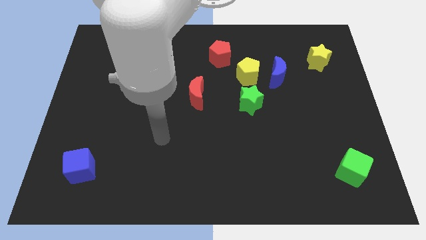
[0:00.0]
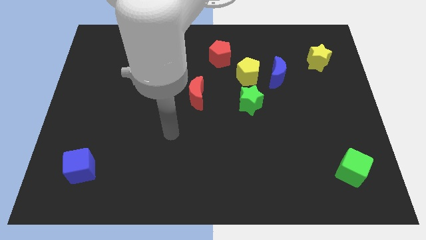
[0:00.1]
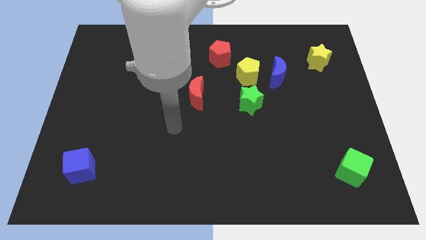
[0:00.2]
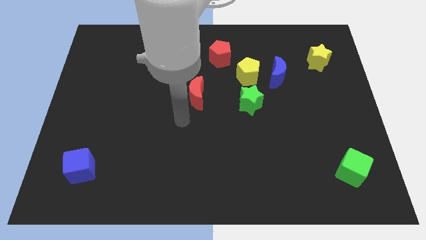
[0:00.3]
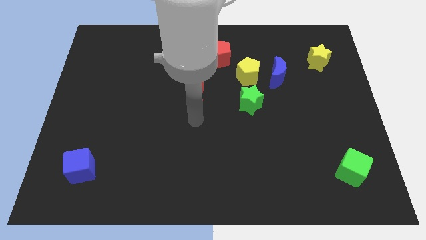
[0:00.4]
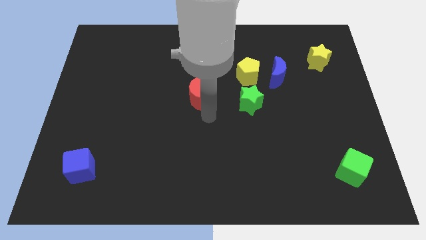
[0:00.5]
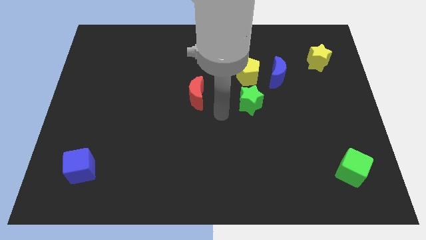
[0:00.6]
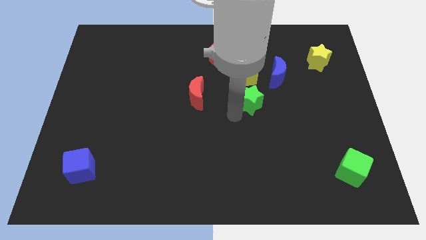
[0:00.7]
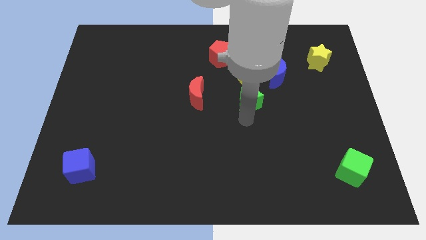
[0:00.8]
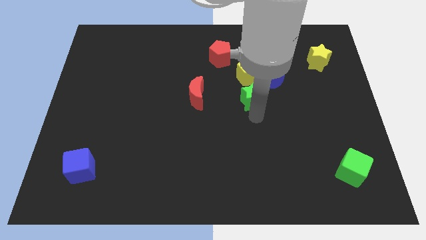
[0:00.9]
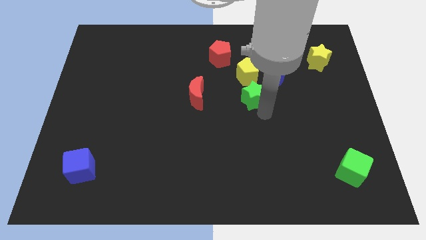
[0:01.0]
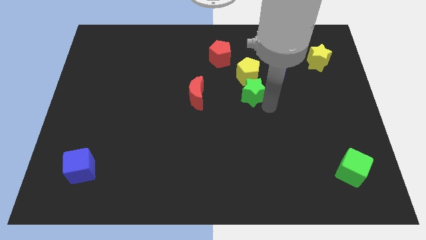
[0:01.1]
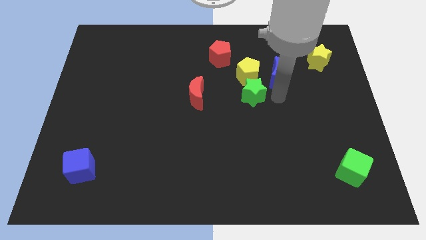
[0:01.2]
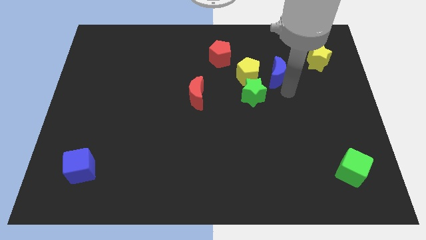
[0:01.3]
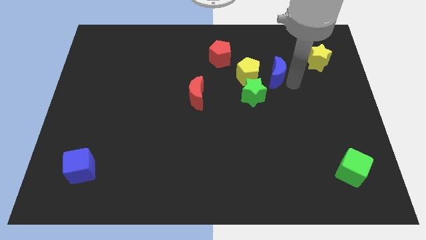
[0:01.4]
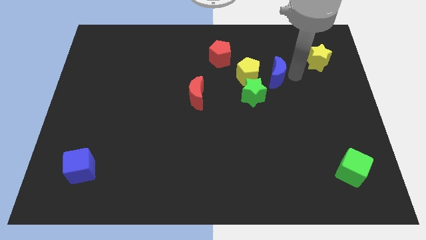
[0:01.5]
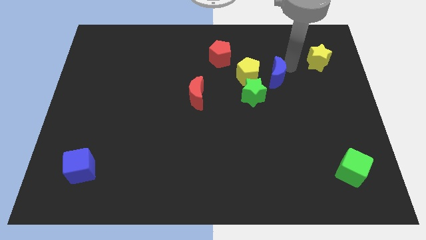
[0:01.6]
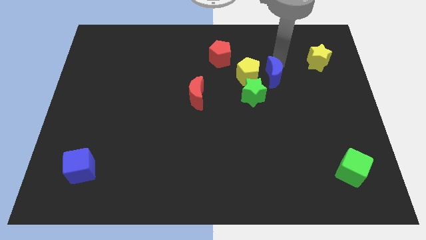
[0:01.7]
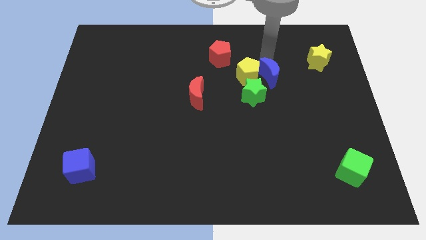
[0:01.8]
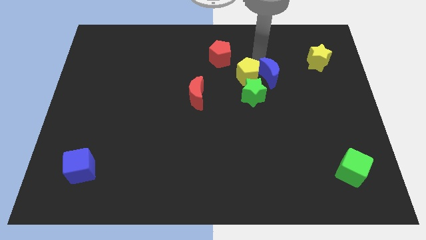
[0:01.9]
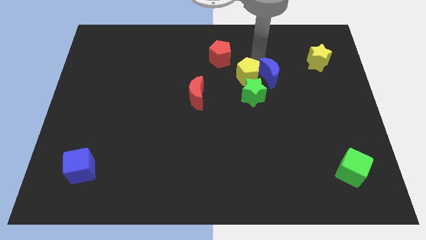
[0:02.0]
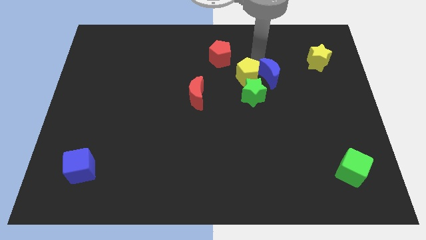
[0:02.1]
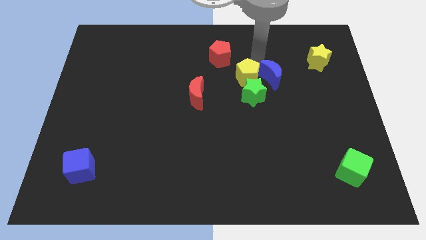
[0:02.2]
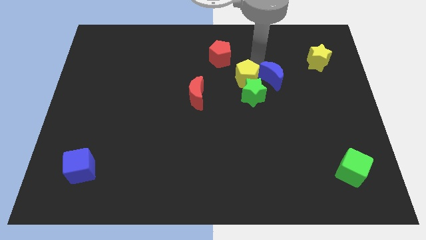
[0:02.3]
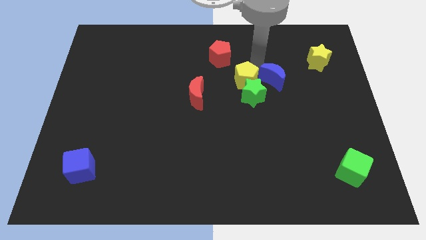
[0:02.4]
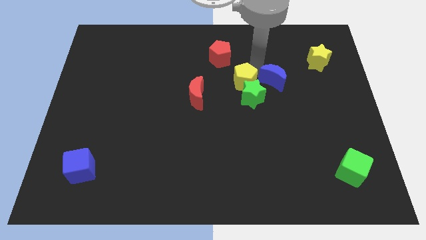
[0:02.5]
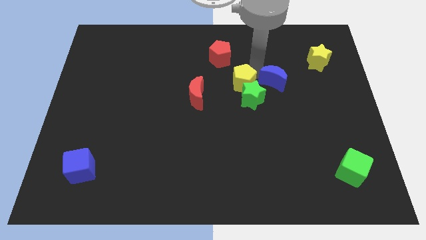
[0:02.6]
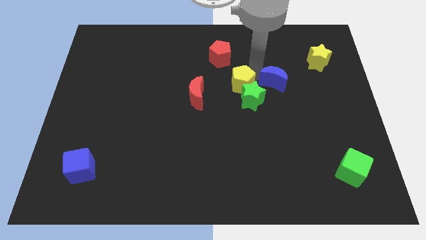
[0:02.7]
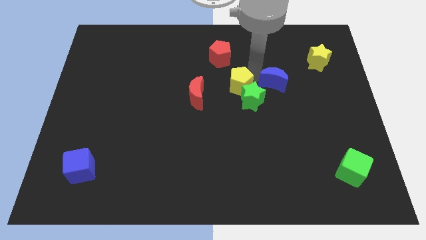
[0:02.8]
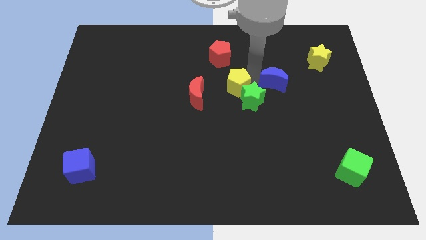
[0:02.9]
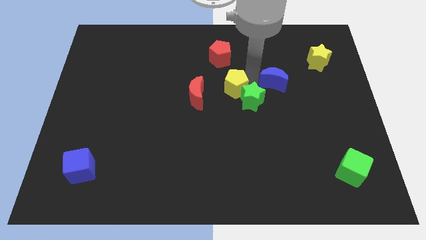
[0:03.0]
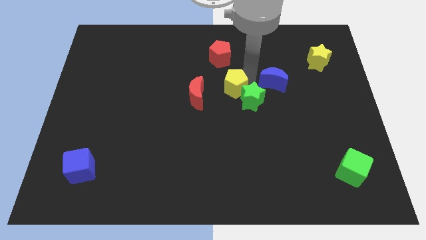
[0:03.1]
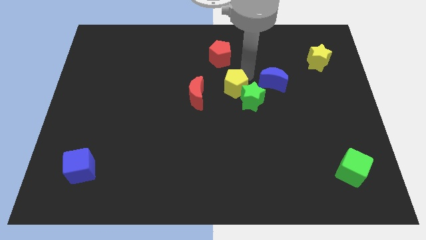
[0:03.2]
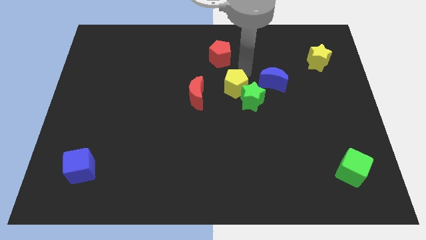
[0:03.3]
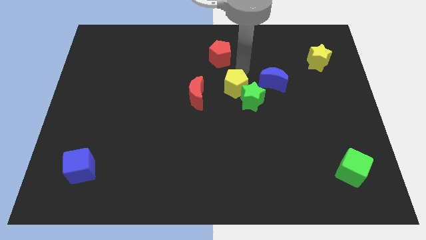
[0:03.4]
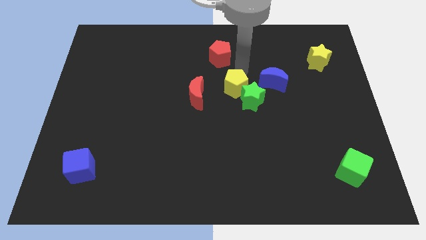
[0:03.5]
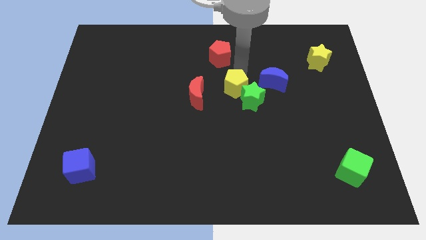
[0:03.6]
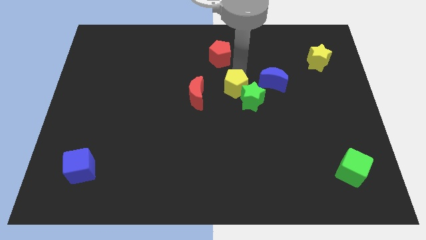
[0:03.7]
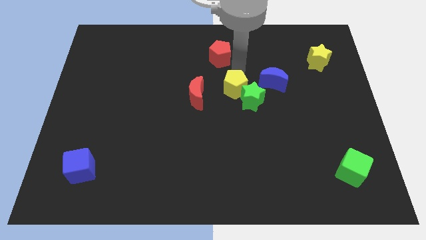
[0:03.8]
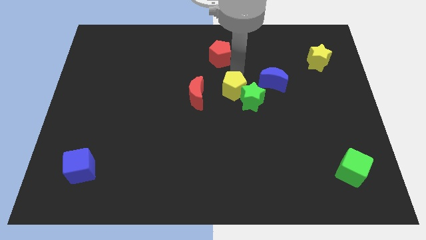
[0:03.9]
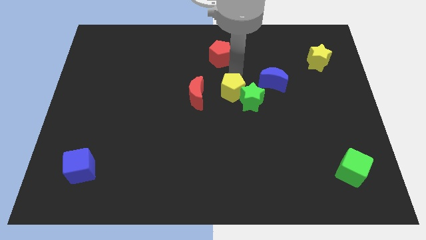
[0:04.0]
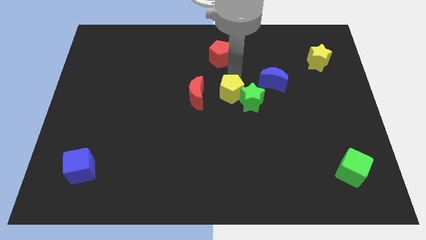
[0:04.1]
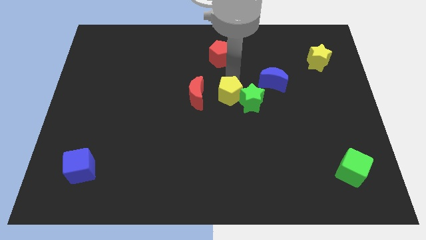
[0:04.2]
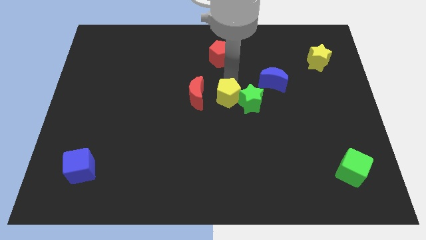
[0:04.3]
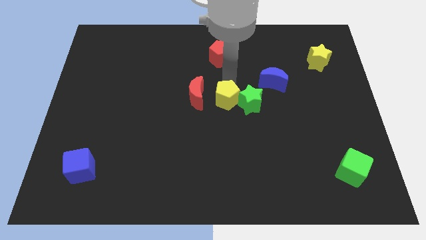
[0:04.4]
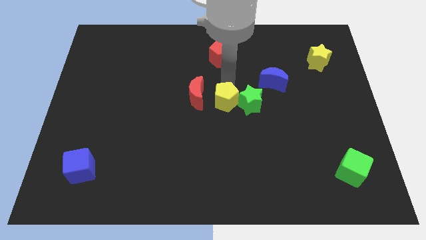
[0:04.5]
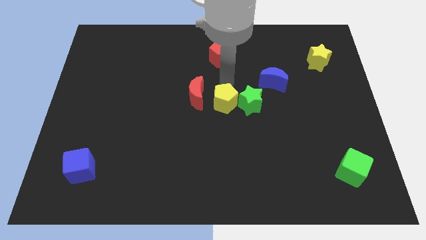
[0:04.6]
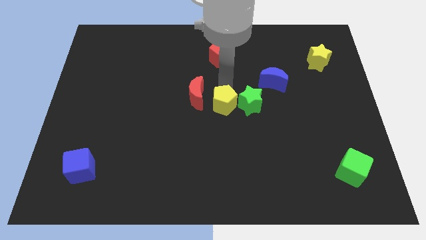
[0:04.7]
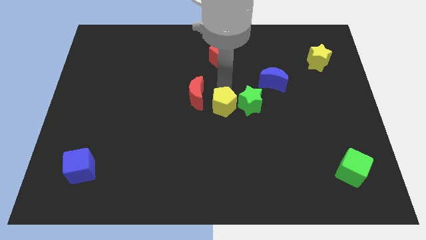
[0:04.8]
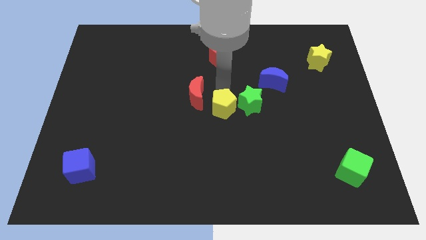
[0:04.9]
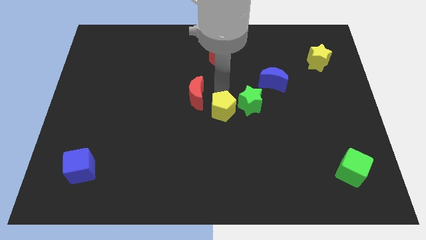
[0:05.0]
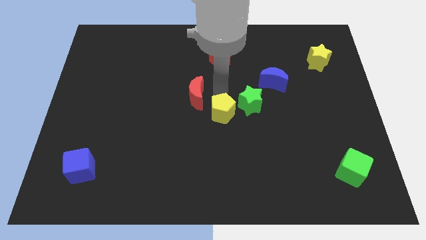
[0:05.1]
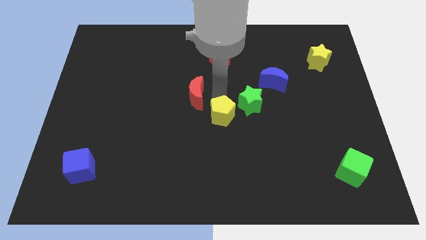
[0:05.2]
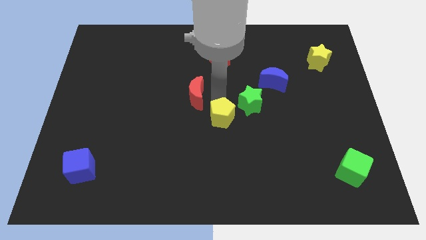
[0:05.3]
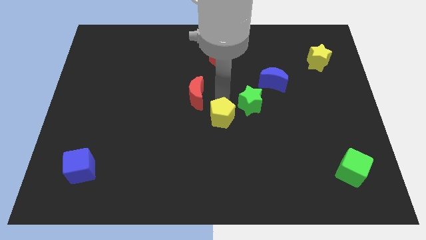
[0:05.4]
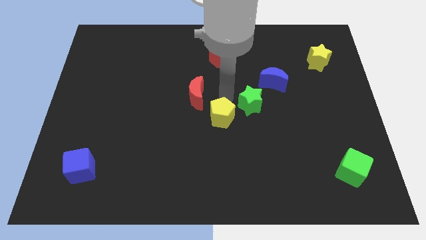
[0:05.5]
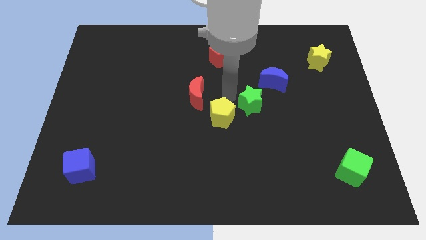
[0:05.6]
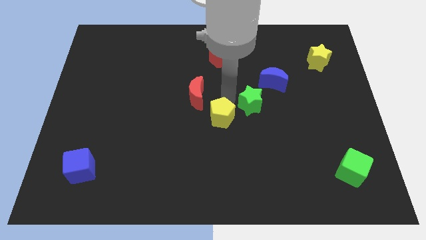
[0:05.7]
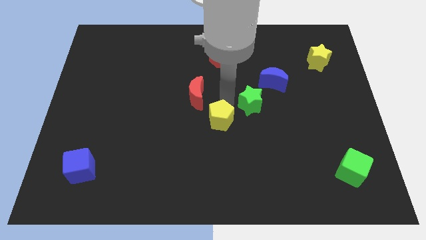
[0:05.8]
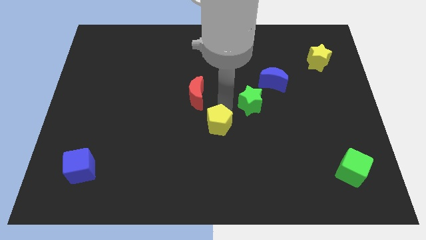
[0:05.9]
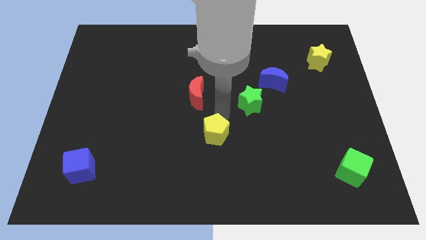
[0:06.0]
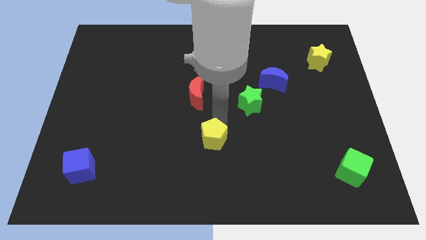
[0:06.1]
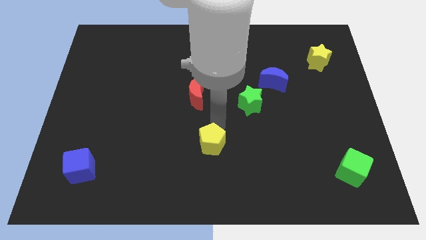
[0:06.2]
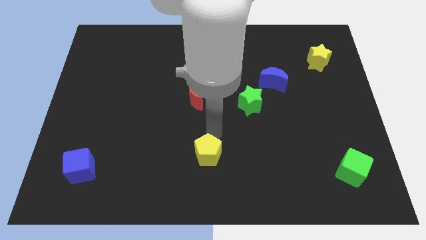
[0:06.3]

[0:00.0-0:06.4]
slide the yellow pentagon to the bottom

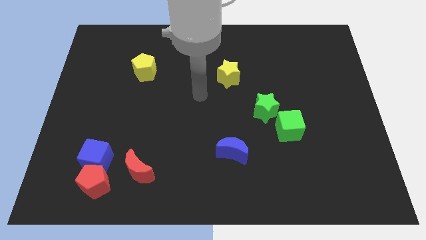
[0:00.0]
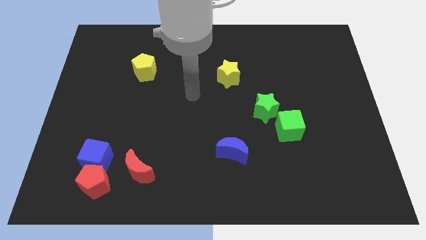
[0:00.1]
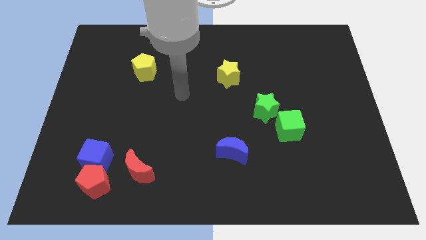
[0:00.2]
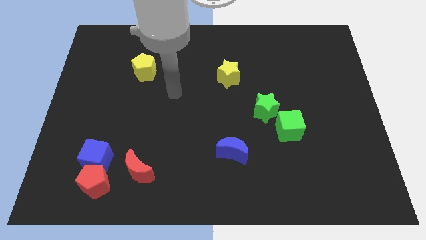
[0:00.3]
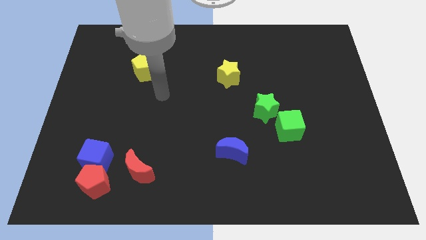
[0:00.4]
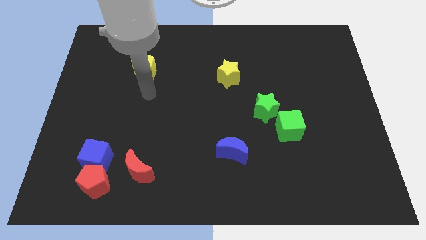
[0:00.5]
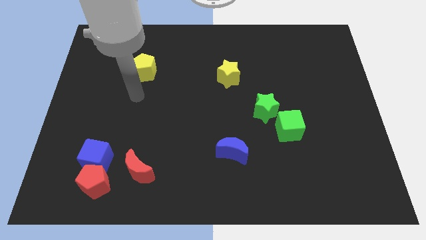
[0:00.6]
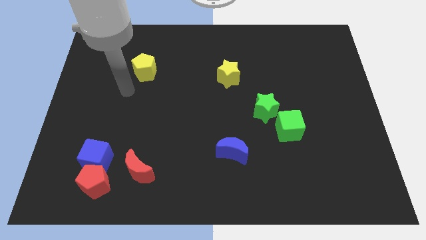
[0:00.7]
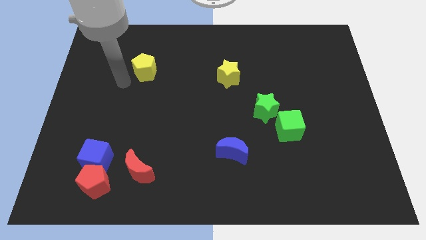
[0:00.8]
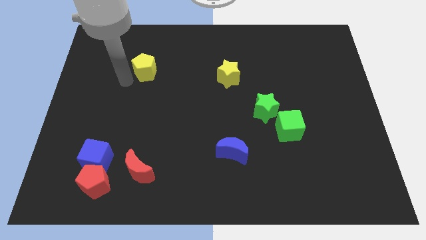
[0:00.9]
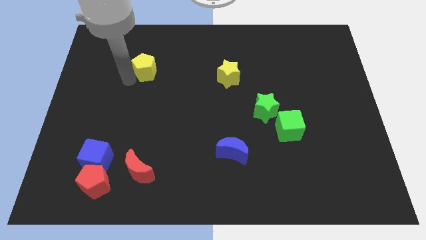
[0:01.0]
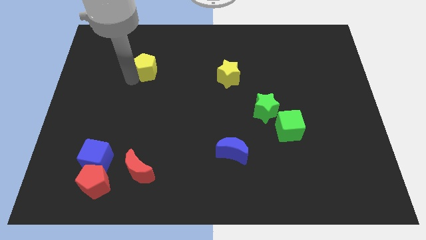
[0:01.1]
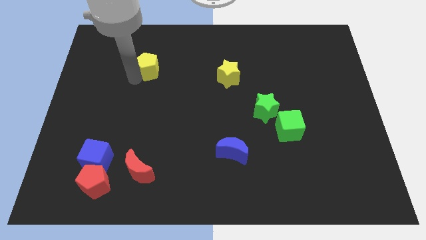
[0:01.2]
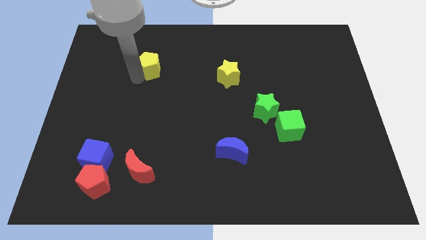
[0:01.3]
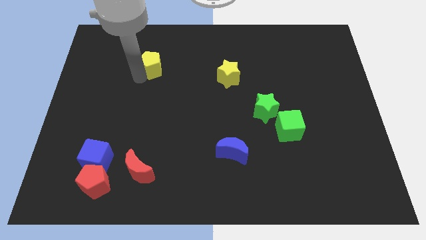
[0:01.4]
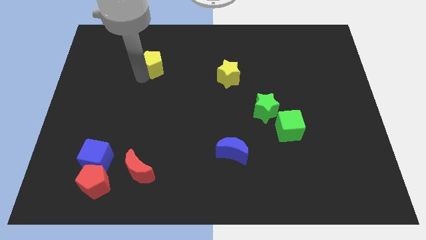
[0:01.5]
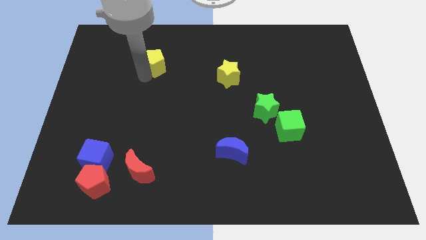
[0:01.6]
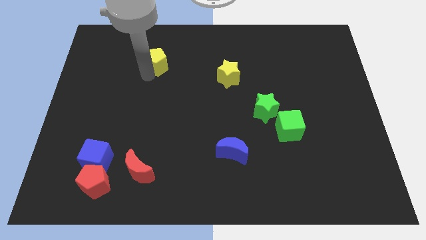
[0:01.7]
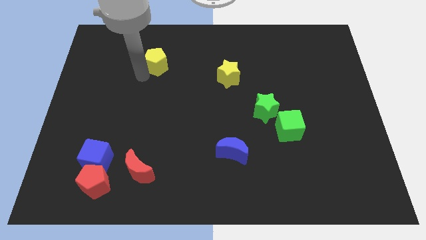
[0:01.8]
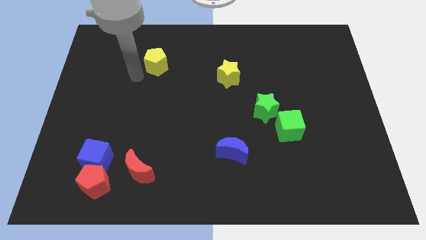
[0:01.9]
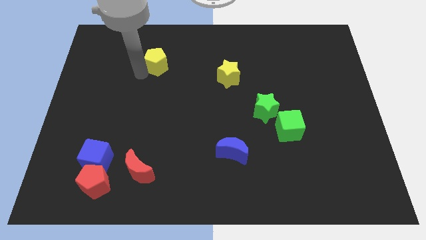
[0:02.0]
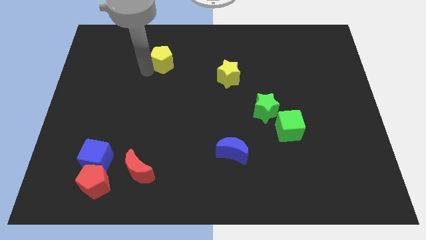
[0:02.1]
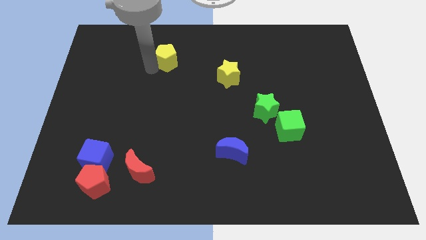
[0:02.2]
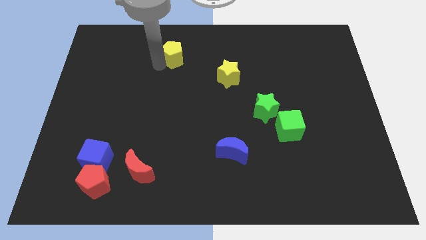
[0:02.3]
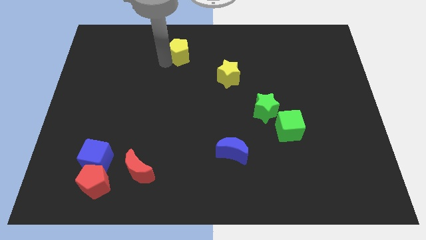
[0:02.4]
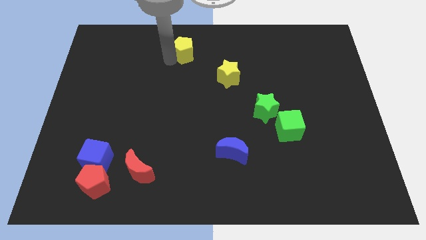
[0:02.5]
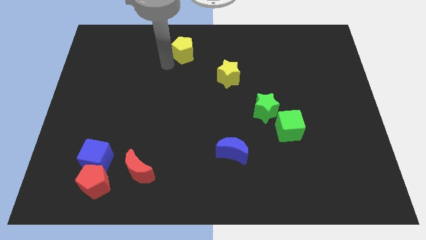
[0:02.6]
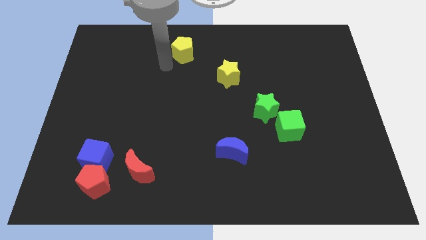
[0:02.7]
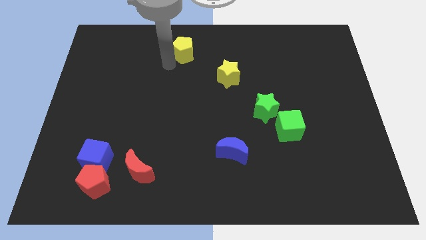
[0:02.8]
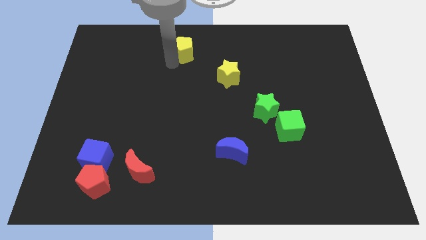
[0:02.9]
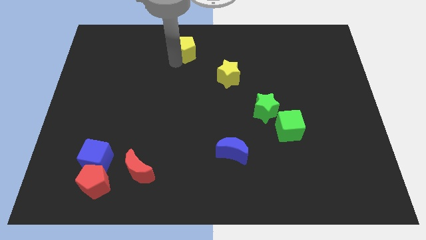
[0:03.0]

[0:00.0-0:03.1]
move the yellow pentagon to the top
